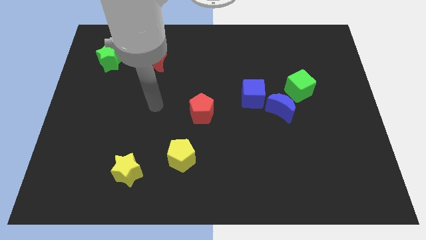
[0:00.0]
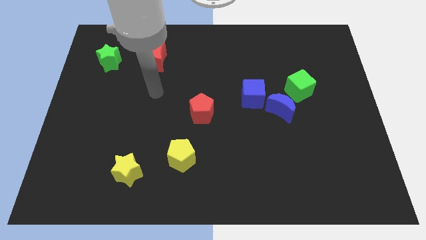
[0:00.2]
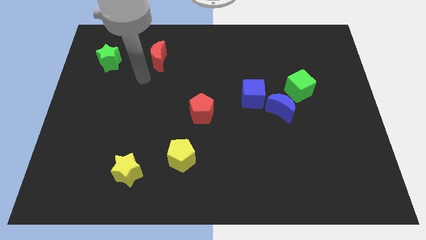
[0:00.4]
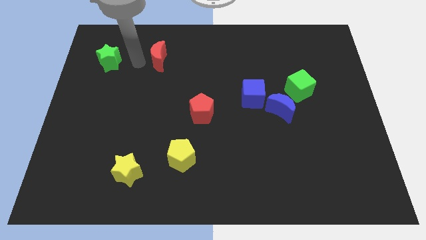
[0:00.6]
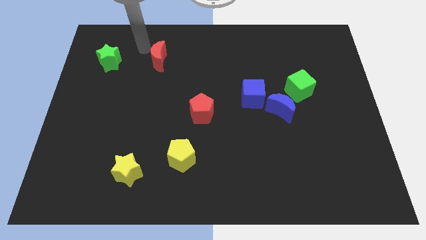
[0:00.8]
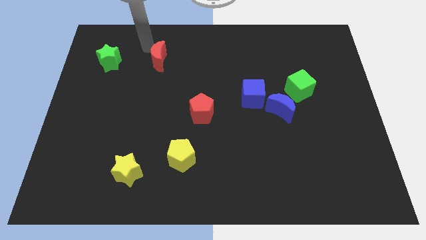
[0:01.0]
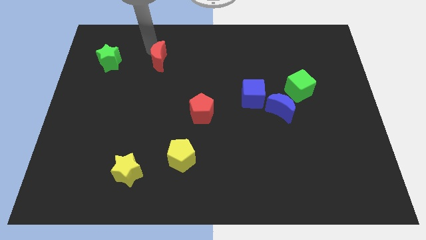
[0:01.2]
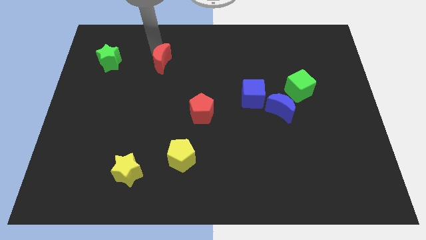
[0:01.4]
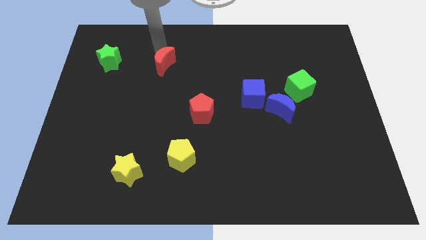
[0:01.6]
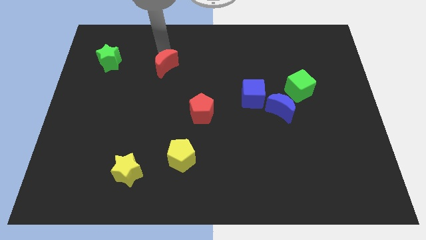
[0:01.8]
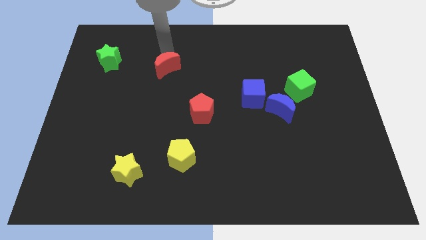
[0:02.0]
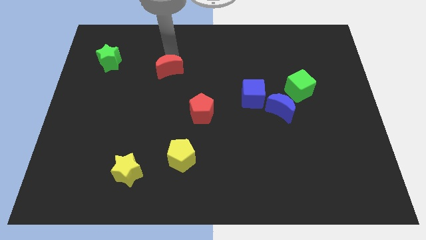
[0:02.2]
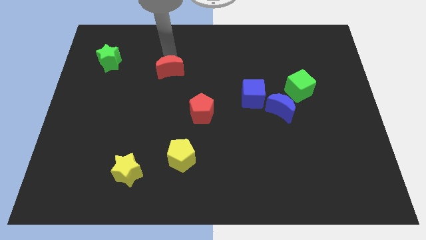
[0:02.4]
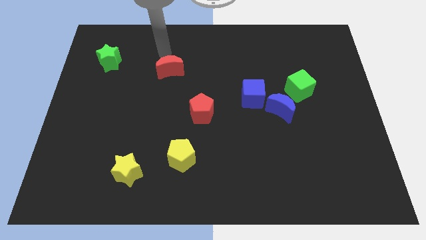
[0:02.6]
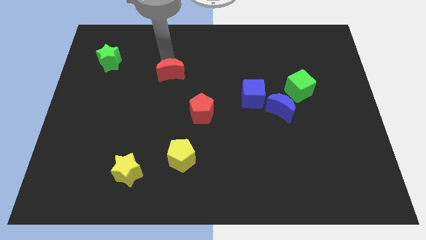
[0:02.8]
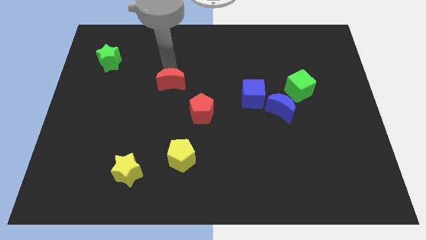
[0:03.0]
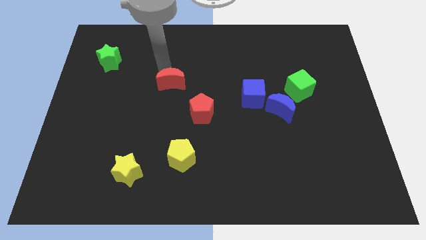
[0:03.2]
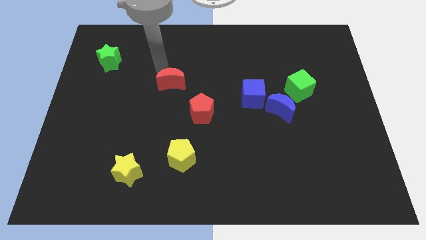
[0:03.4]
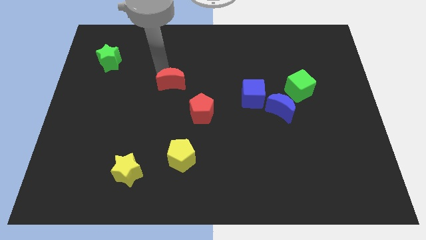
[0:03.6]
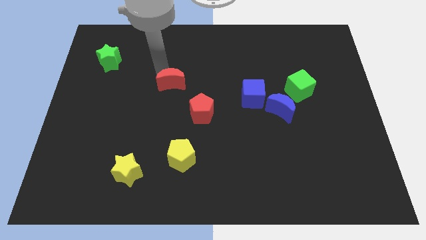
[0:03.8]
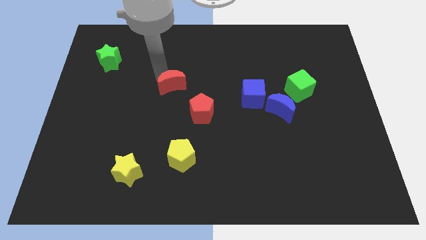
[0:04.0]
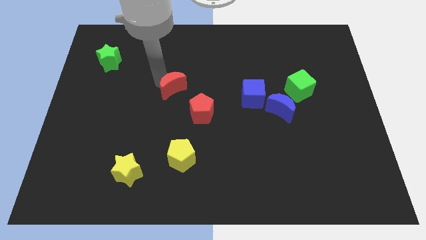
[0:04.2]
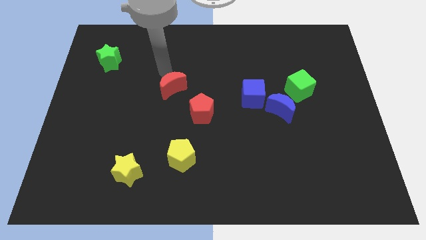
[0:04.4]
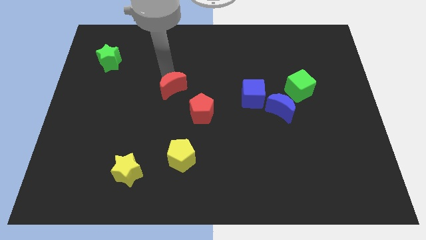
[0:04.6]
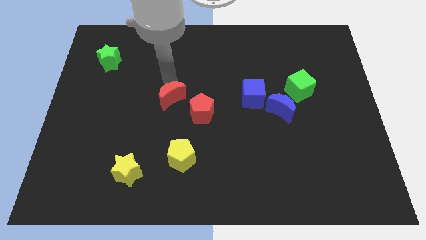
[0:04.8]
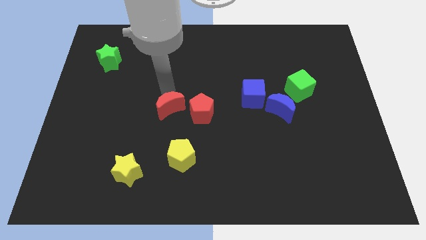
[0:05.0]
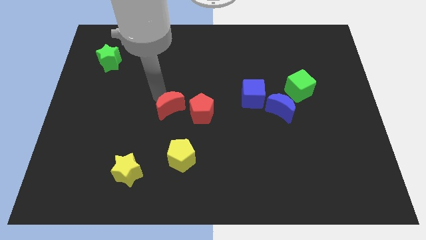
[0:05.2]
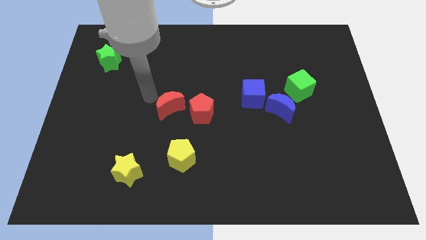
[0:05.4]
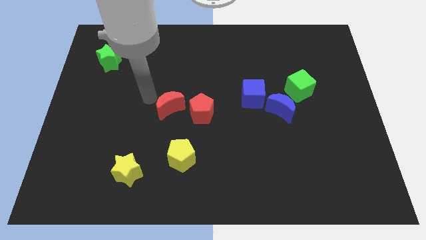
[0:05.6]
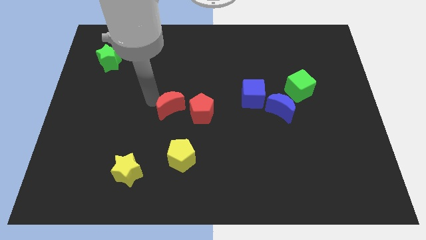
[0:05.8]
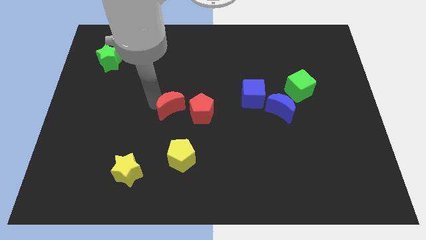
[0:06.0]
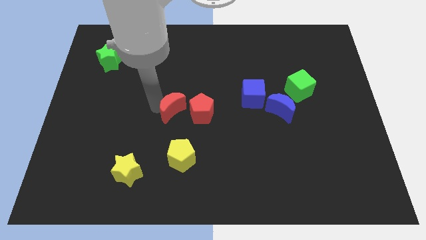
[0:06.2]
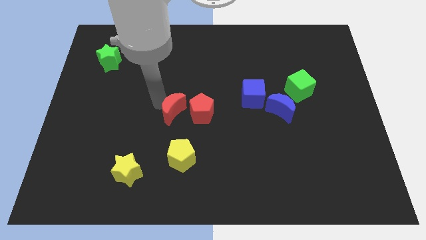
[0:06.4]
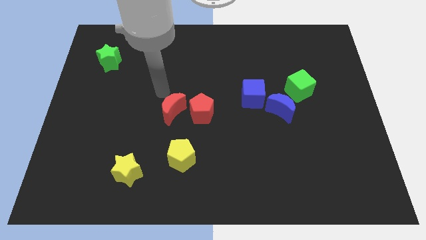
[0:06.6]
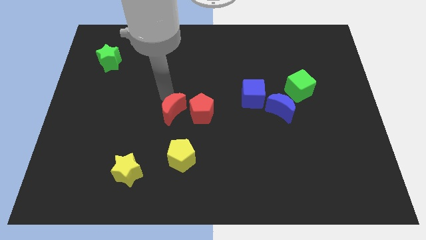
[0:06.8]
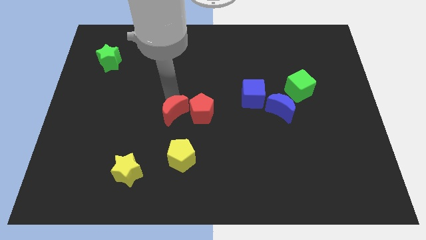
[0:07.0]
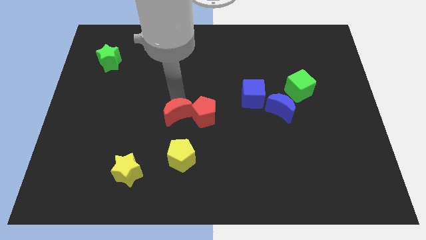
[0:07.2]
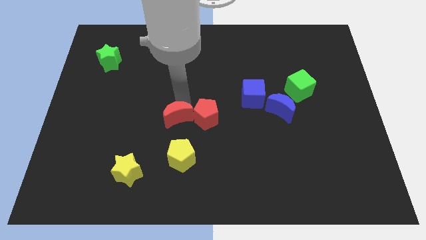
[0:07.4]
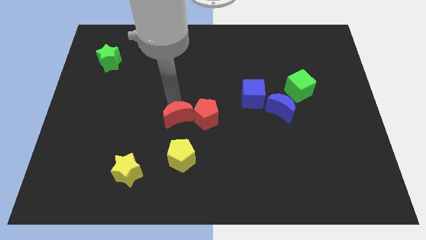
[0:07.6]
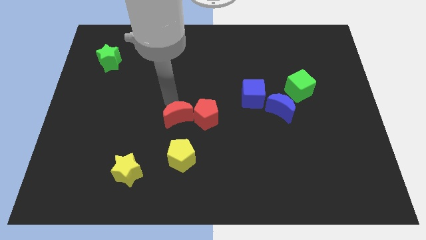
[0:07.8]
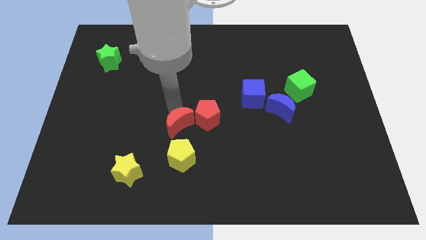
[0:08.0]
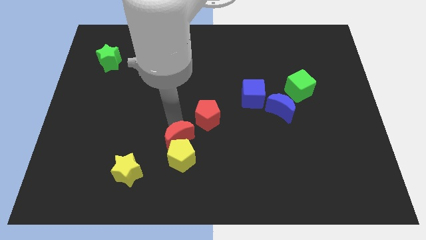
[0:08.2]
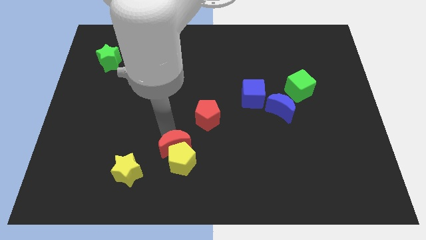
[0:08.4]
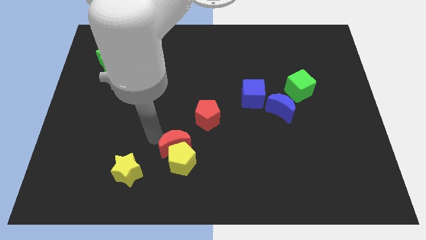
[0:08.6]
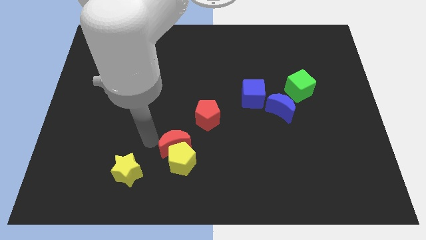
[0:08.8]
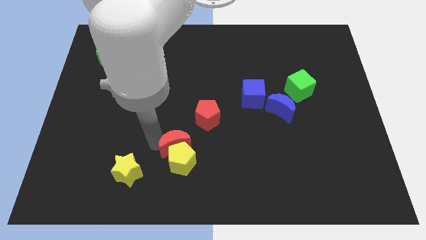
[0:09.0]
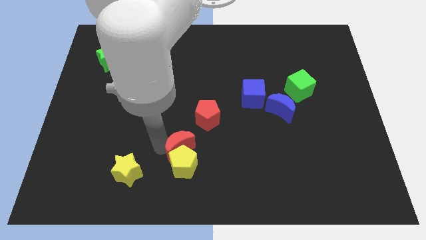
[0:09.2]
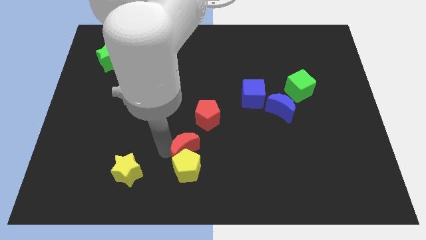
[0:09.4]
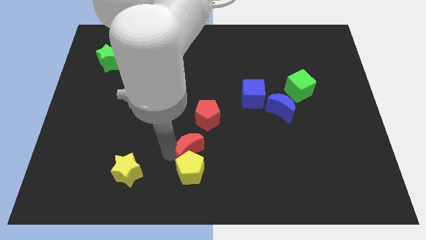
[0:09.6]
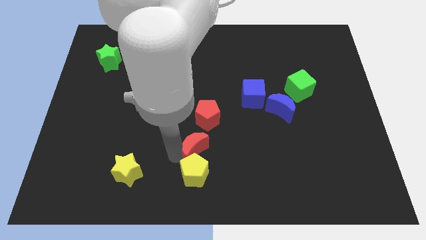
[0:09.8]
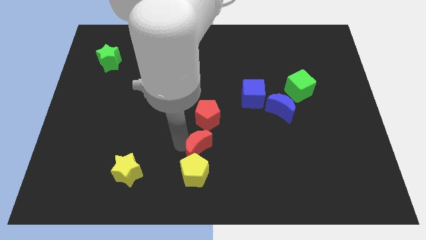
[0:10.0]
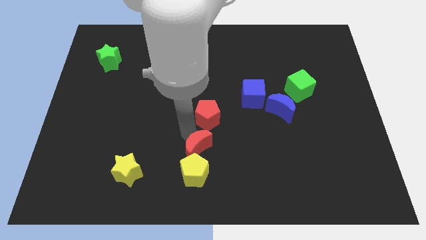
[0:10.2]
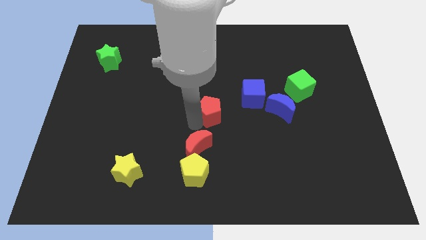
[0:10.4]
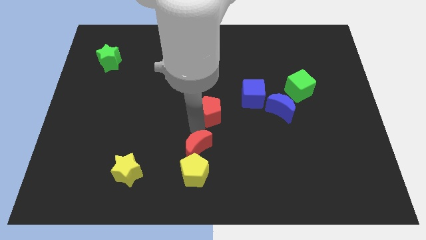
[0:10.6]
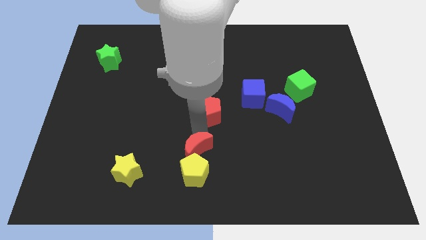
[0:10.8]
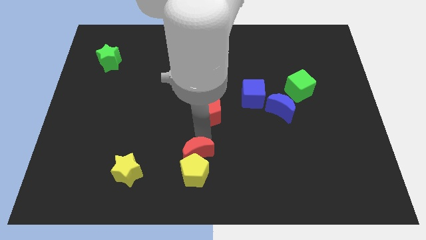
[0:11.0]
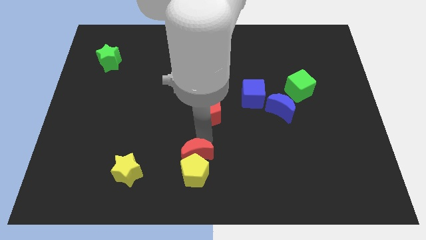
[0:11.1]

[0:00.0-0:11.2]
put the red moon just right of the yellow star

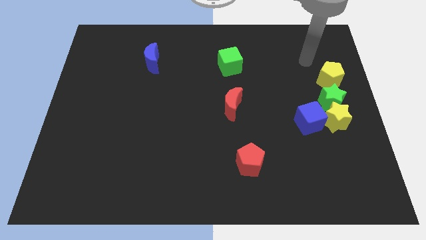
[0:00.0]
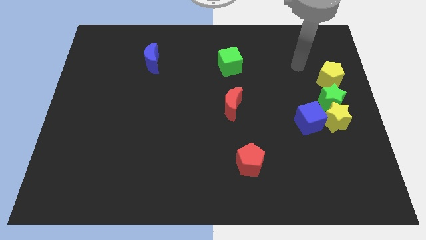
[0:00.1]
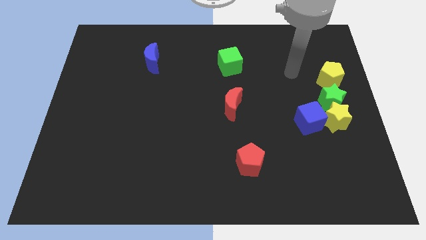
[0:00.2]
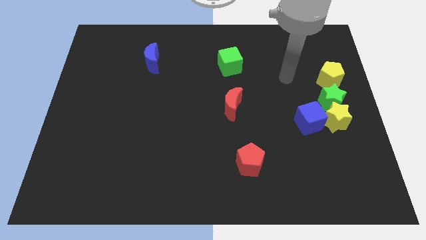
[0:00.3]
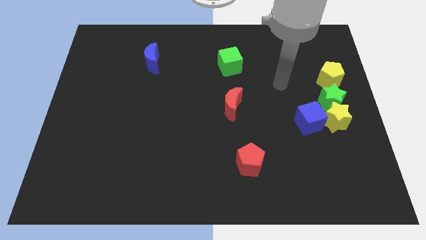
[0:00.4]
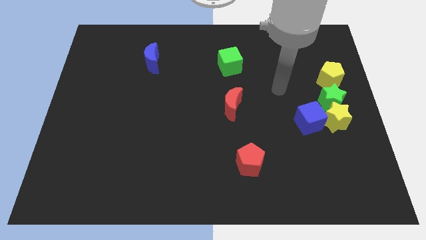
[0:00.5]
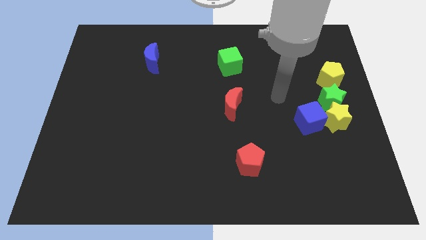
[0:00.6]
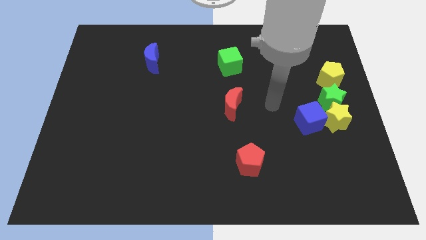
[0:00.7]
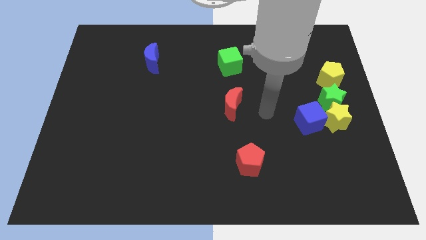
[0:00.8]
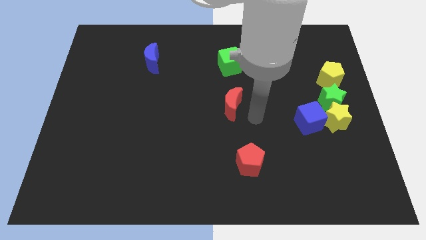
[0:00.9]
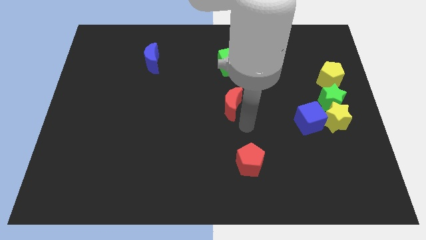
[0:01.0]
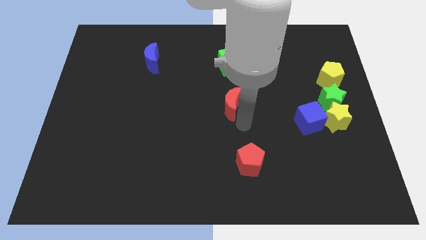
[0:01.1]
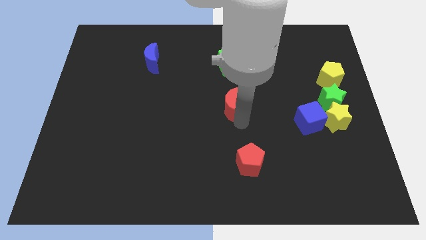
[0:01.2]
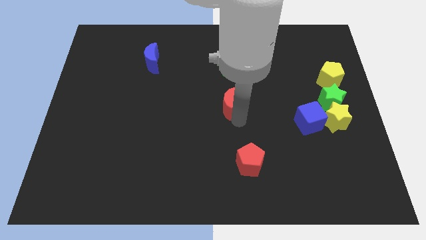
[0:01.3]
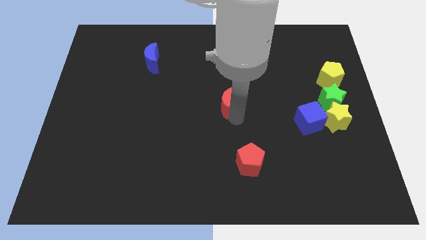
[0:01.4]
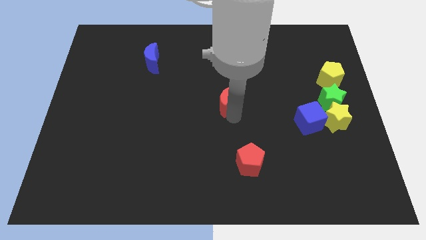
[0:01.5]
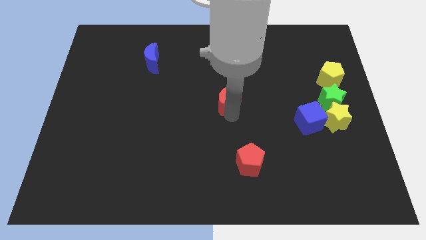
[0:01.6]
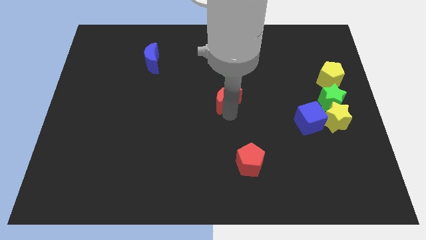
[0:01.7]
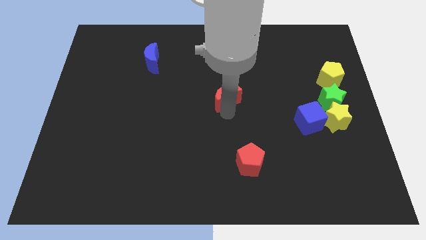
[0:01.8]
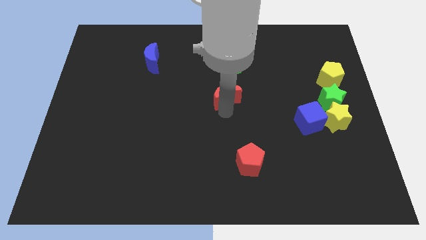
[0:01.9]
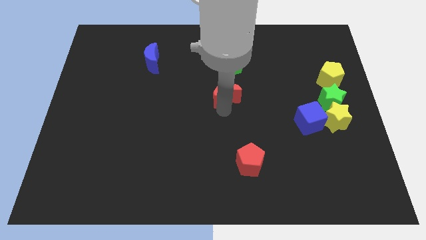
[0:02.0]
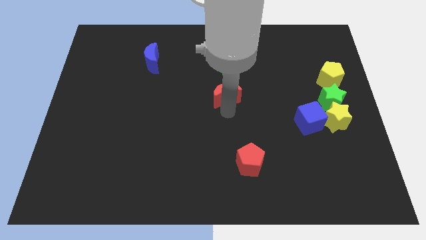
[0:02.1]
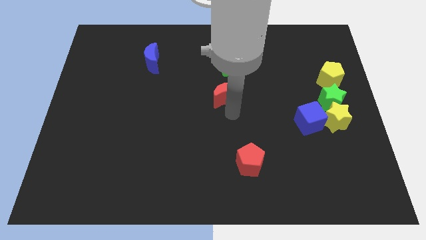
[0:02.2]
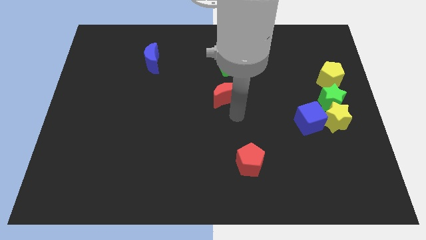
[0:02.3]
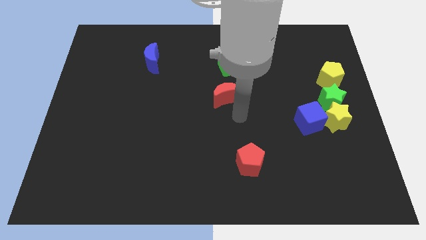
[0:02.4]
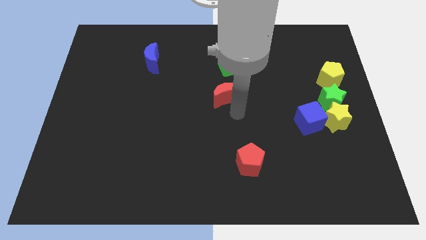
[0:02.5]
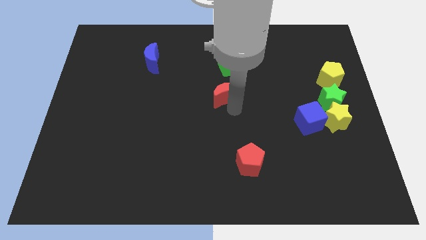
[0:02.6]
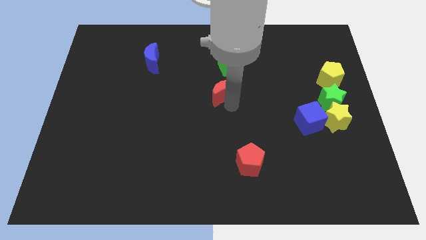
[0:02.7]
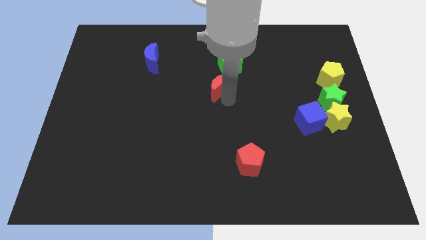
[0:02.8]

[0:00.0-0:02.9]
push the red moon to the bottom left side of the green cube
